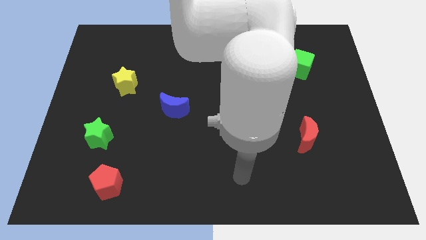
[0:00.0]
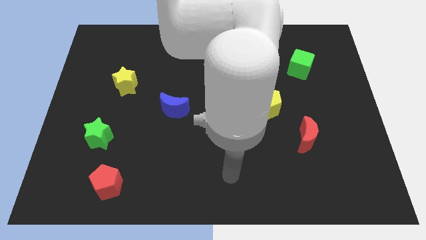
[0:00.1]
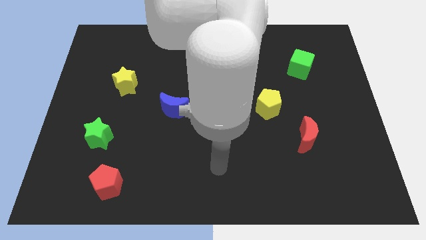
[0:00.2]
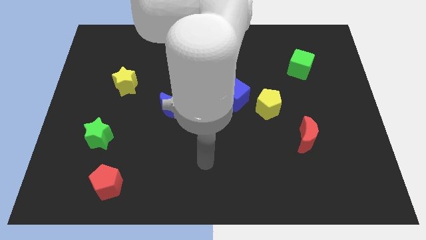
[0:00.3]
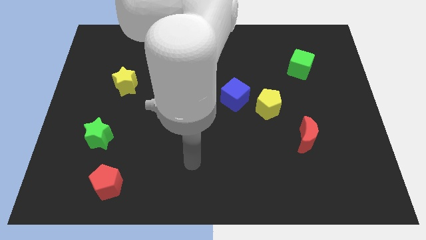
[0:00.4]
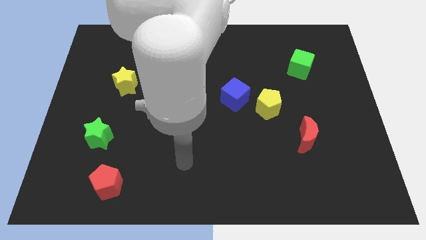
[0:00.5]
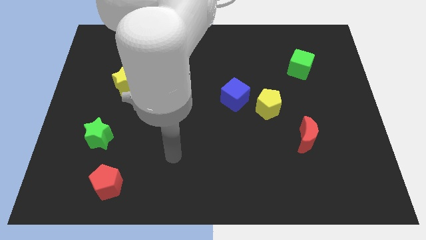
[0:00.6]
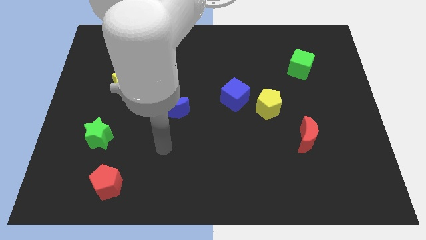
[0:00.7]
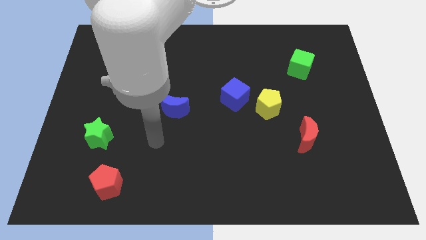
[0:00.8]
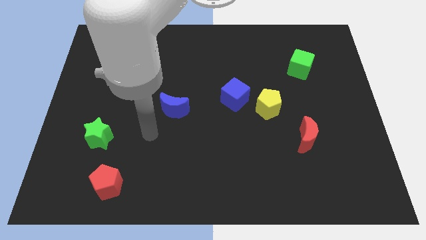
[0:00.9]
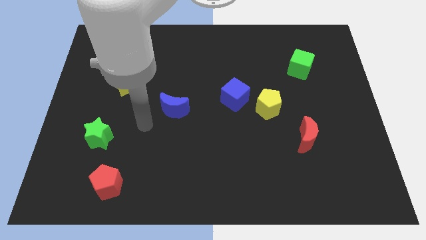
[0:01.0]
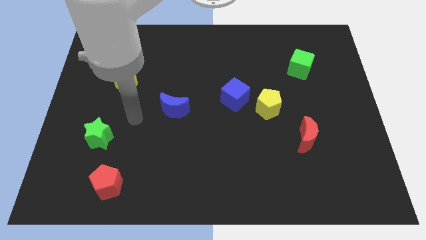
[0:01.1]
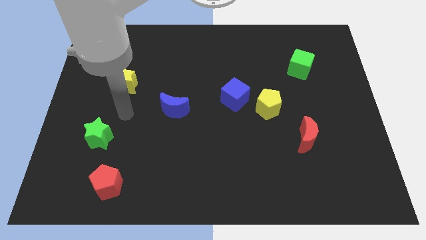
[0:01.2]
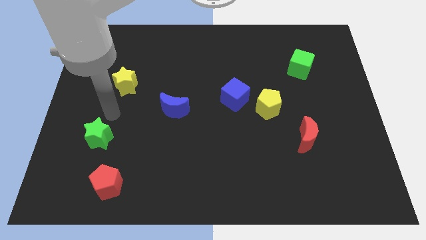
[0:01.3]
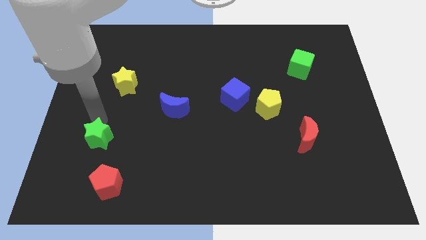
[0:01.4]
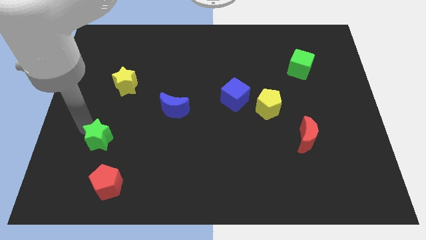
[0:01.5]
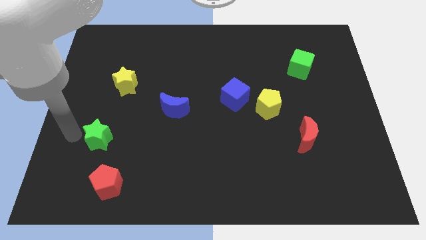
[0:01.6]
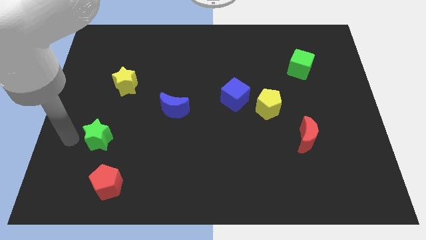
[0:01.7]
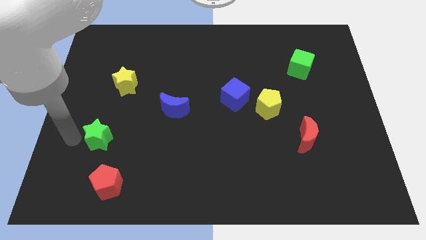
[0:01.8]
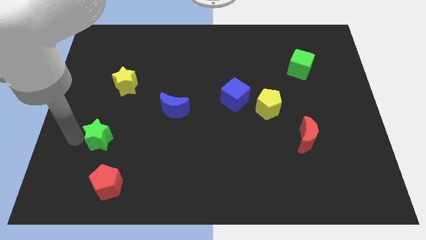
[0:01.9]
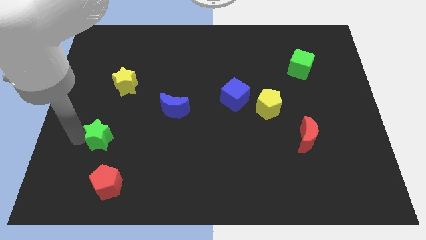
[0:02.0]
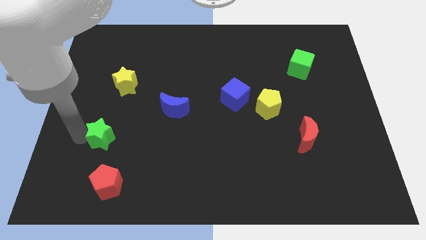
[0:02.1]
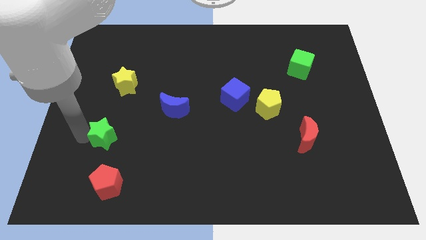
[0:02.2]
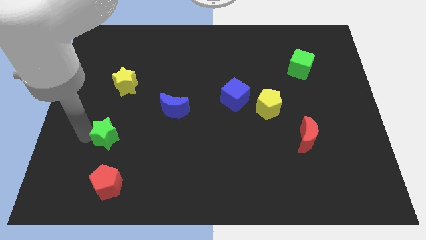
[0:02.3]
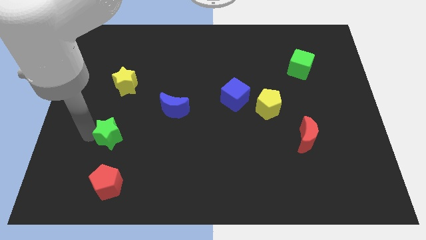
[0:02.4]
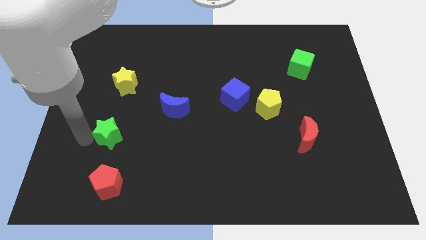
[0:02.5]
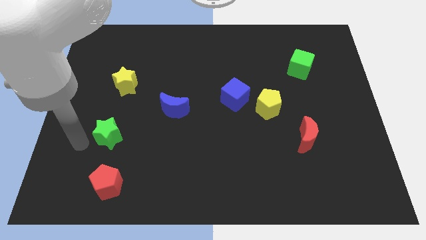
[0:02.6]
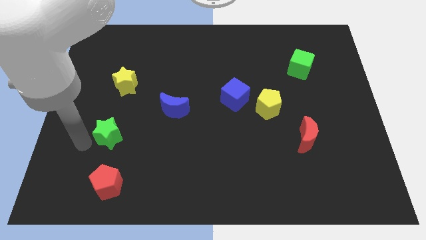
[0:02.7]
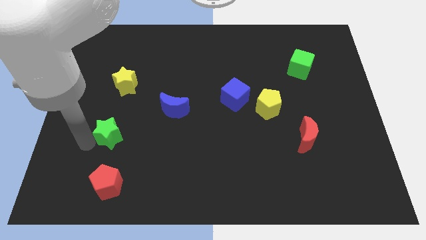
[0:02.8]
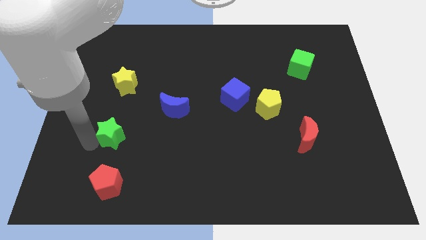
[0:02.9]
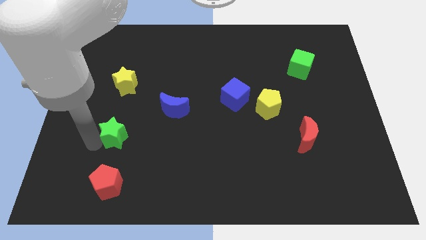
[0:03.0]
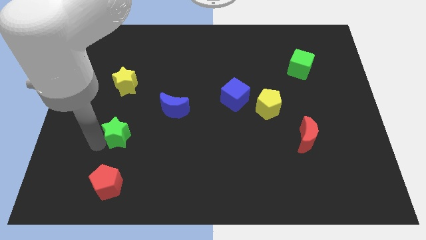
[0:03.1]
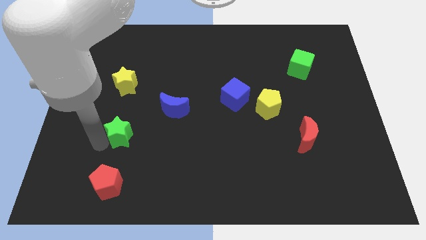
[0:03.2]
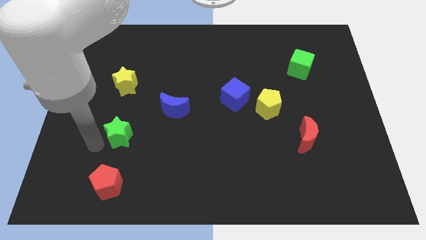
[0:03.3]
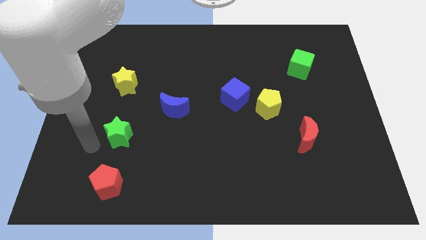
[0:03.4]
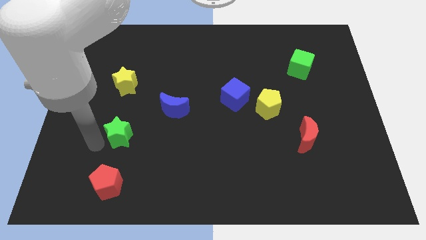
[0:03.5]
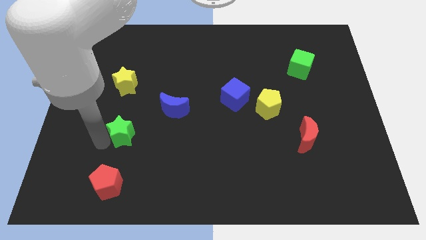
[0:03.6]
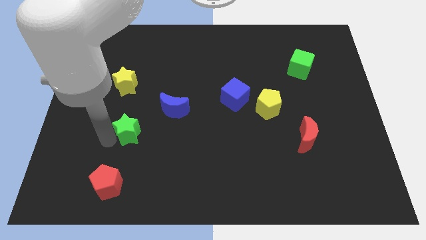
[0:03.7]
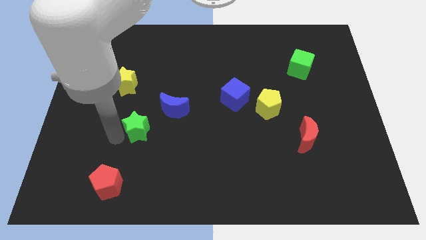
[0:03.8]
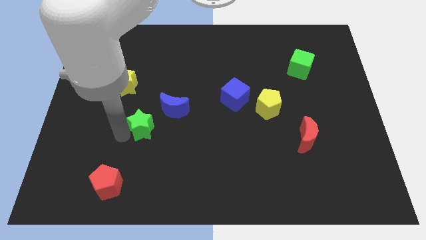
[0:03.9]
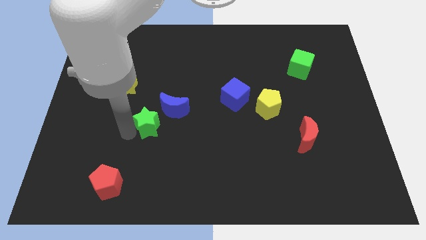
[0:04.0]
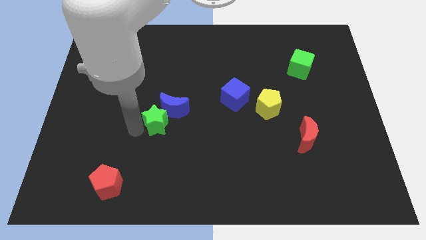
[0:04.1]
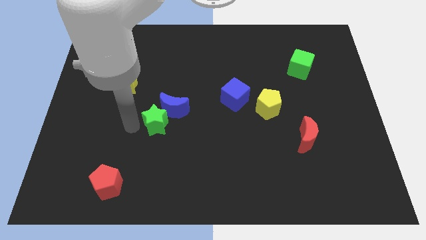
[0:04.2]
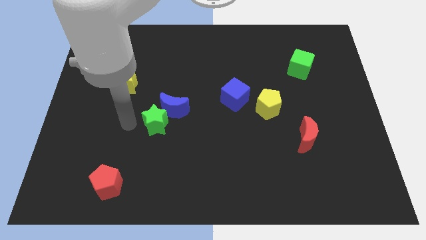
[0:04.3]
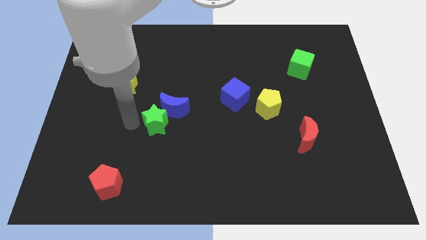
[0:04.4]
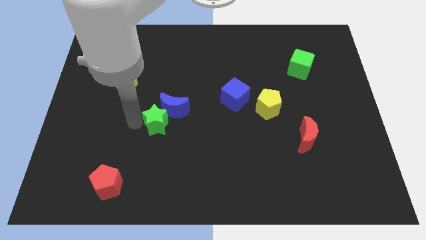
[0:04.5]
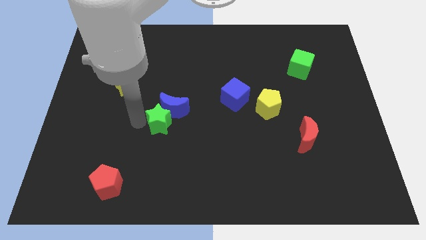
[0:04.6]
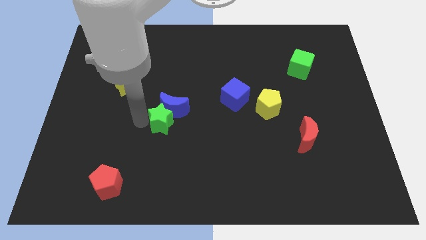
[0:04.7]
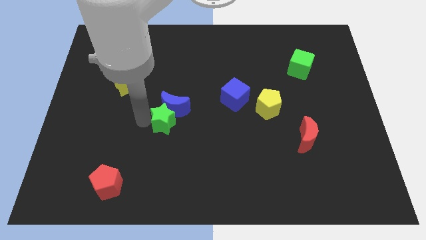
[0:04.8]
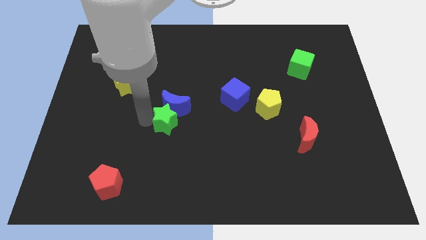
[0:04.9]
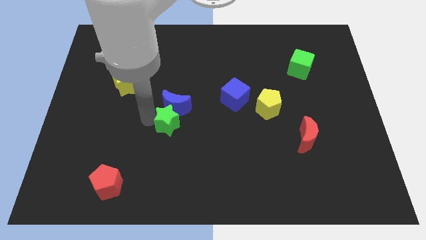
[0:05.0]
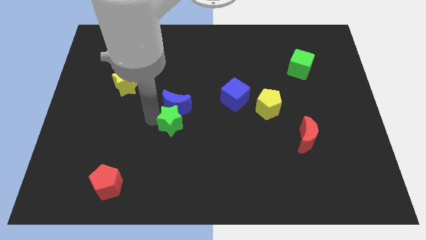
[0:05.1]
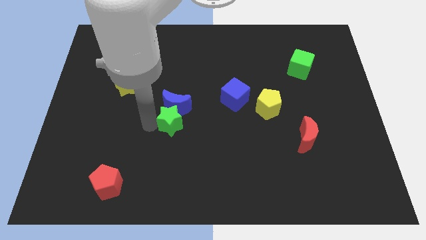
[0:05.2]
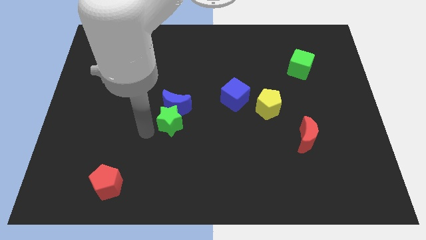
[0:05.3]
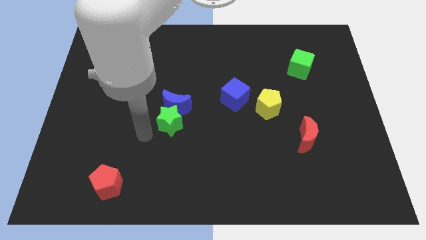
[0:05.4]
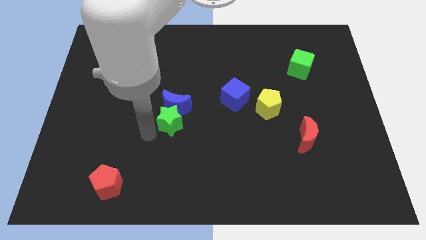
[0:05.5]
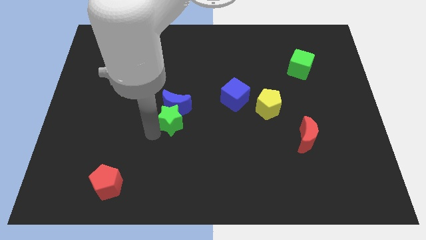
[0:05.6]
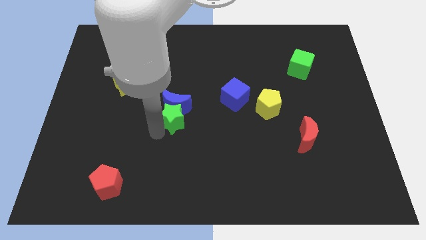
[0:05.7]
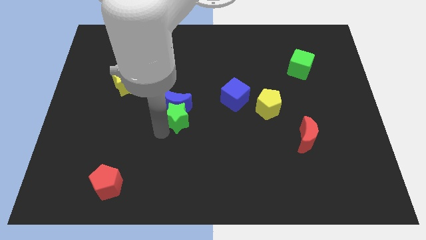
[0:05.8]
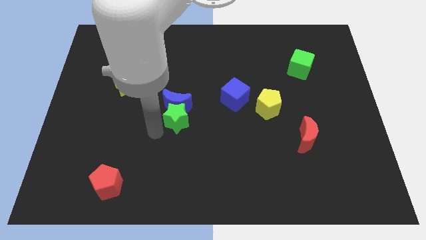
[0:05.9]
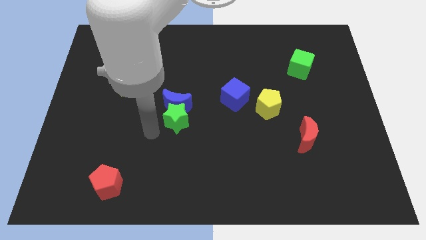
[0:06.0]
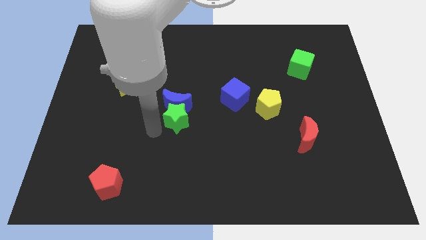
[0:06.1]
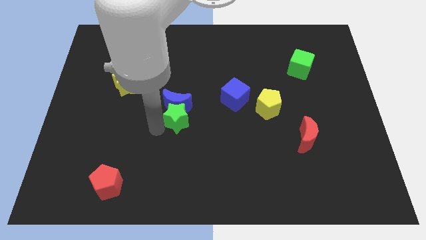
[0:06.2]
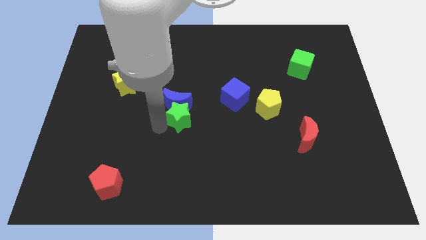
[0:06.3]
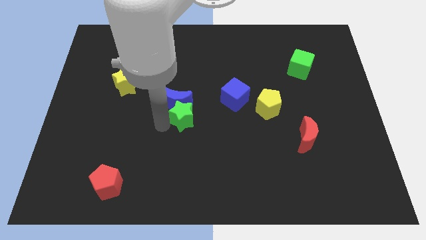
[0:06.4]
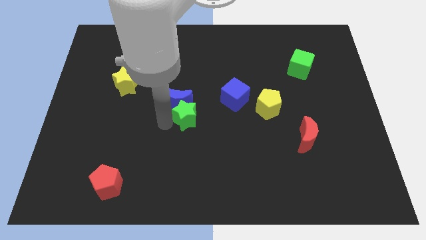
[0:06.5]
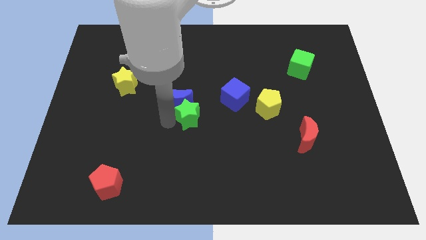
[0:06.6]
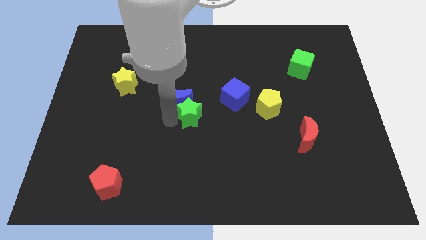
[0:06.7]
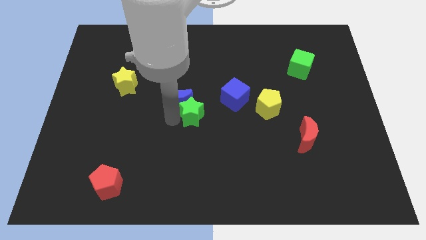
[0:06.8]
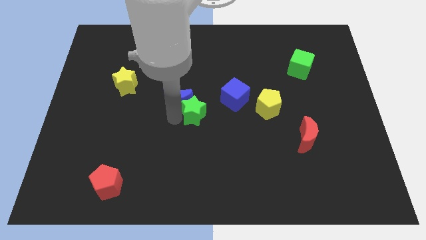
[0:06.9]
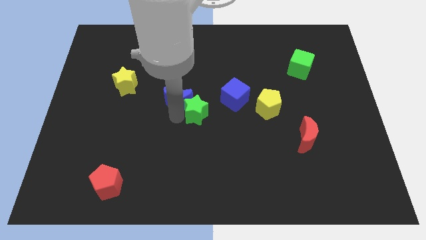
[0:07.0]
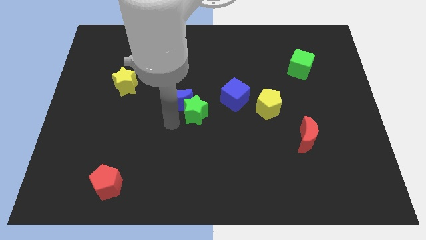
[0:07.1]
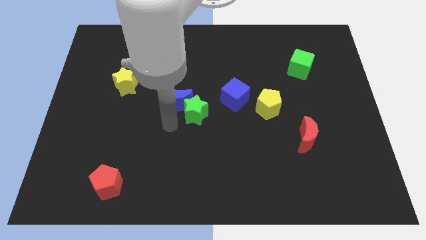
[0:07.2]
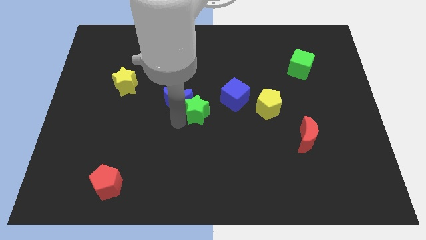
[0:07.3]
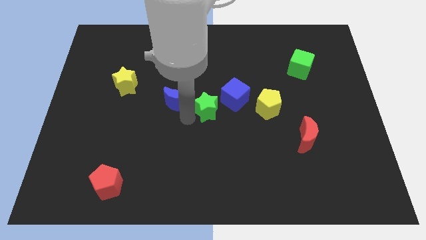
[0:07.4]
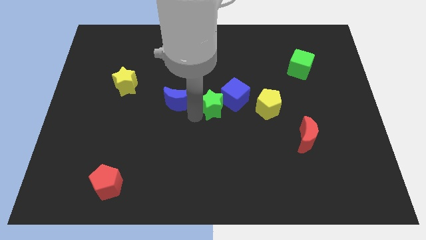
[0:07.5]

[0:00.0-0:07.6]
push the green star next to the blue cube
